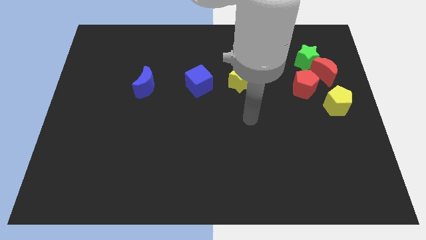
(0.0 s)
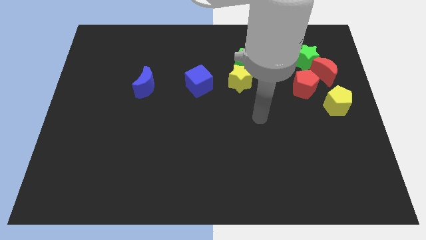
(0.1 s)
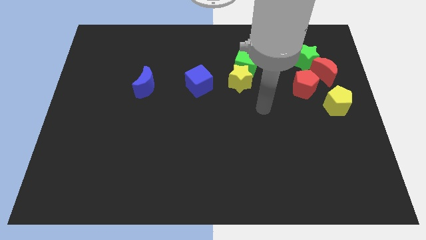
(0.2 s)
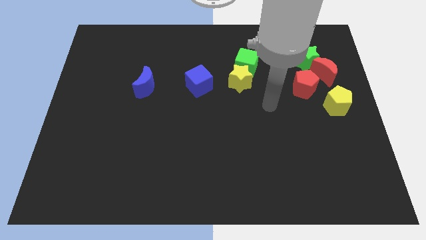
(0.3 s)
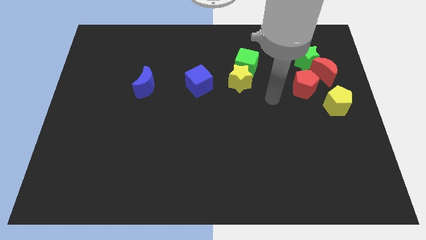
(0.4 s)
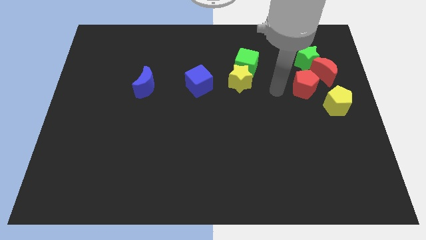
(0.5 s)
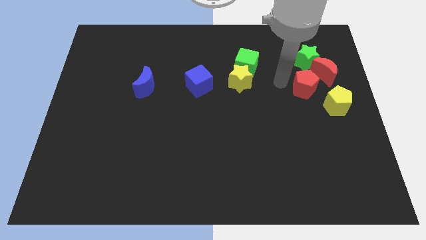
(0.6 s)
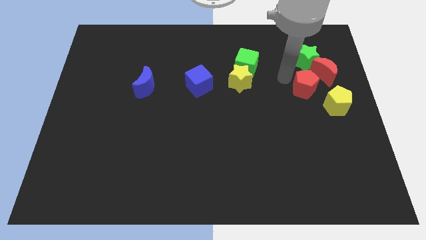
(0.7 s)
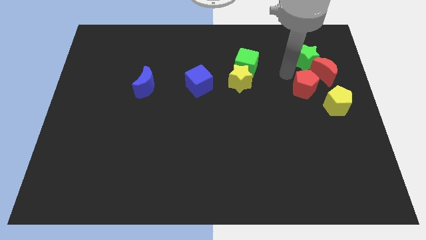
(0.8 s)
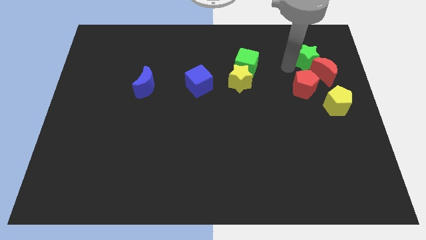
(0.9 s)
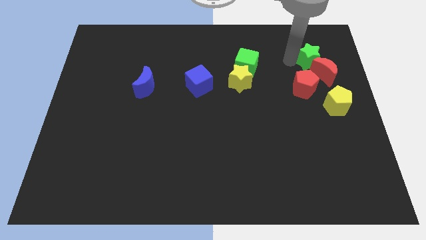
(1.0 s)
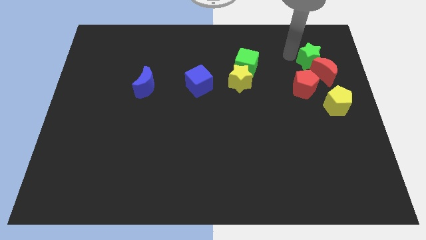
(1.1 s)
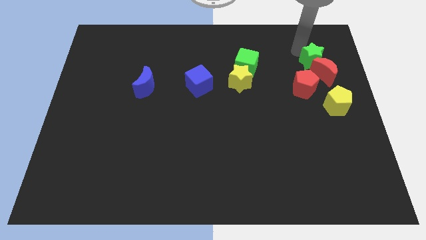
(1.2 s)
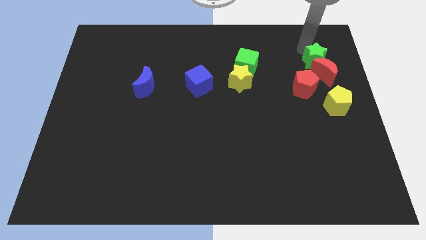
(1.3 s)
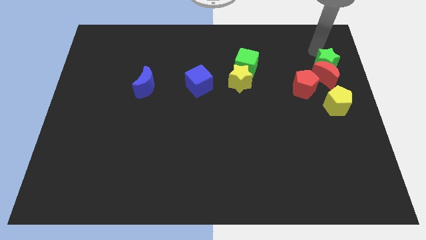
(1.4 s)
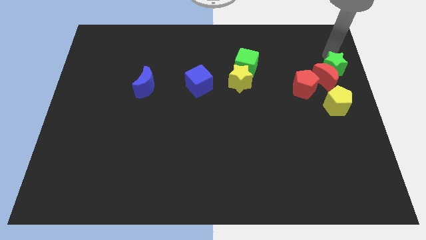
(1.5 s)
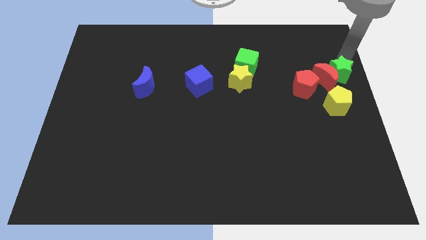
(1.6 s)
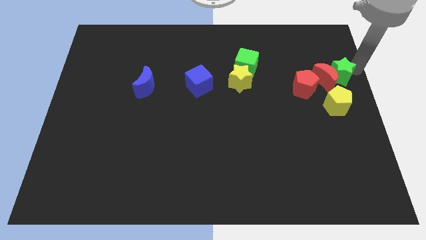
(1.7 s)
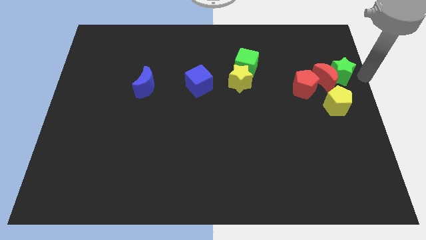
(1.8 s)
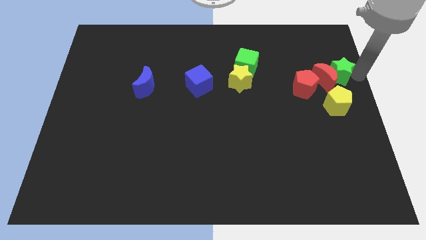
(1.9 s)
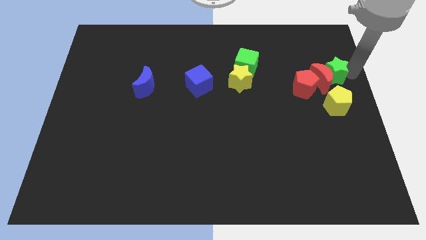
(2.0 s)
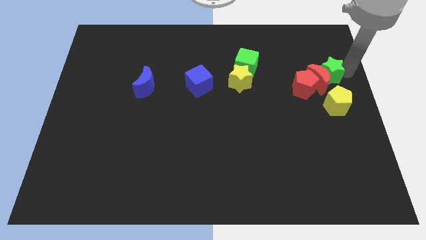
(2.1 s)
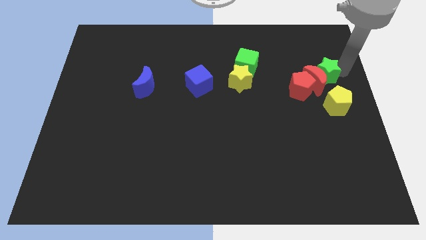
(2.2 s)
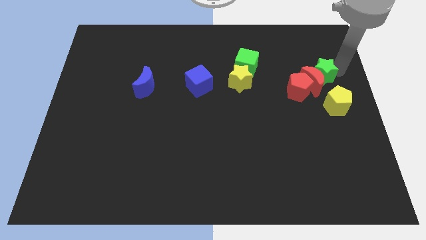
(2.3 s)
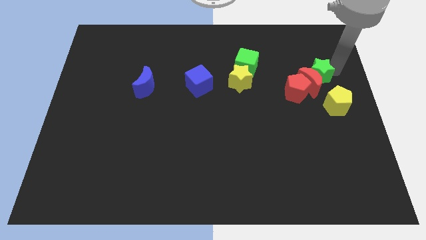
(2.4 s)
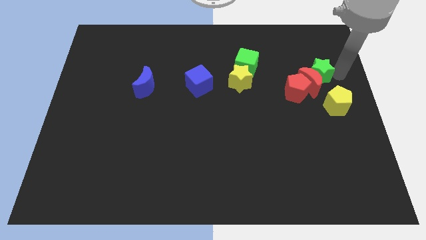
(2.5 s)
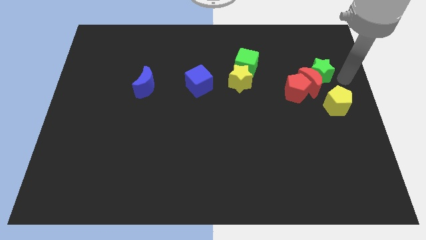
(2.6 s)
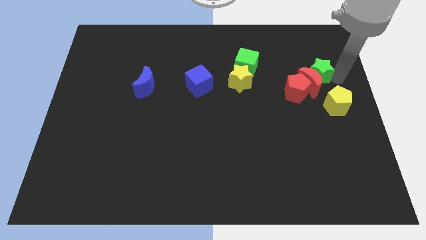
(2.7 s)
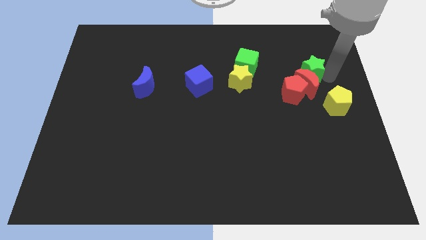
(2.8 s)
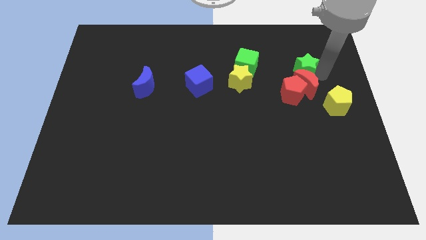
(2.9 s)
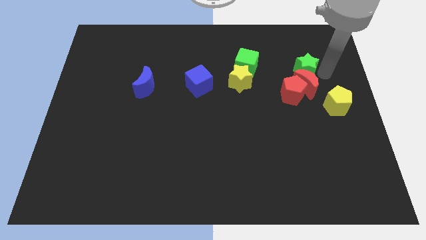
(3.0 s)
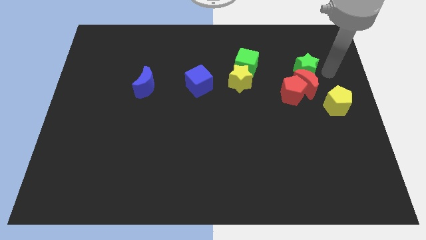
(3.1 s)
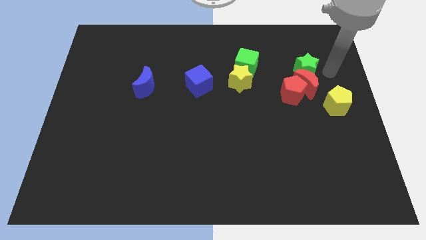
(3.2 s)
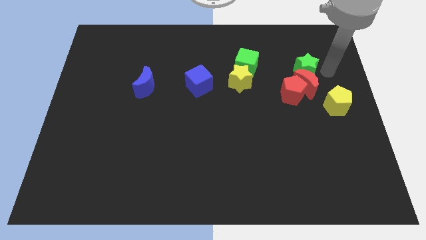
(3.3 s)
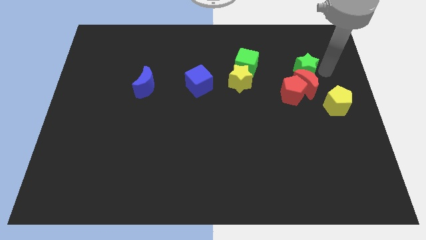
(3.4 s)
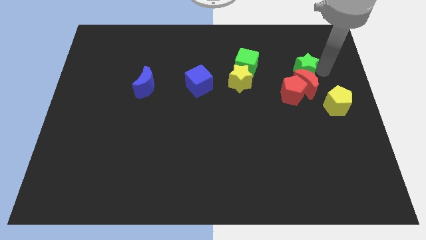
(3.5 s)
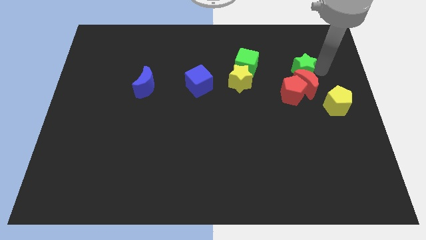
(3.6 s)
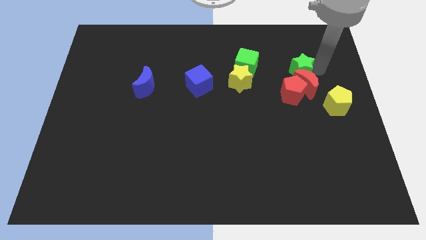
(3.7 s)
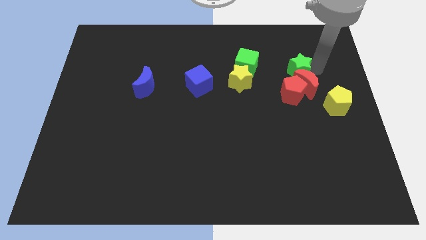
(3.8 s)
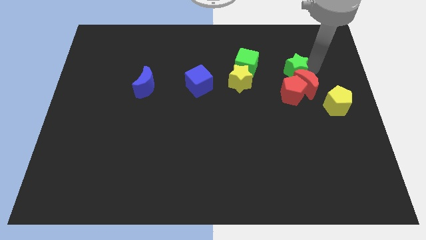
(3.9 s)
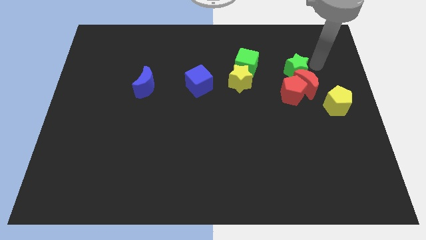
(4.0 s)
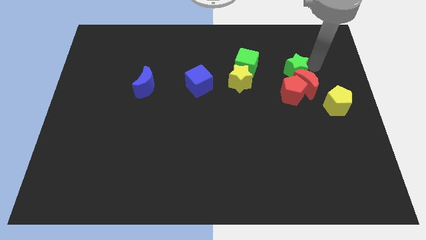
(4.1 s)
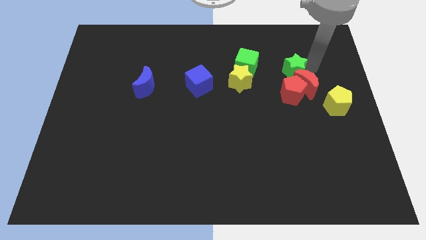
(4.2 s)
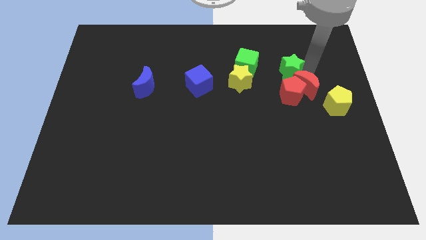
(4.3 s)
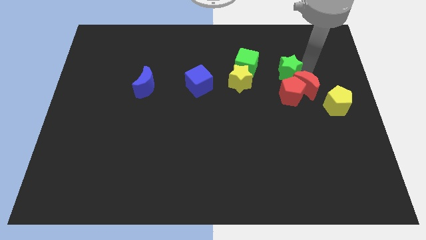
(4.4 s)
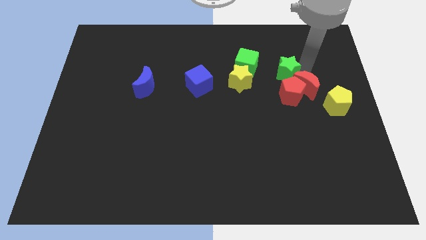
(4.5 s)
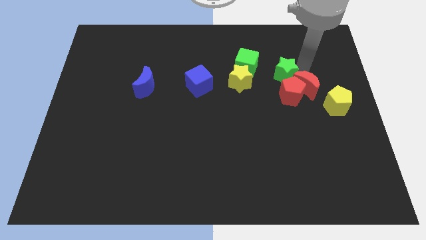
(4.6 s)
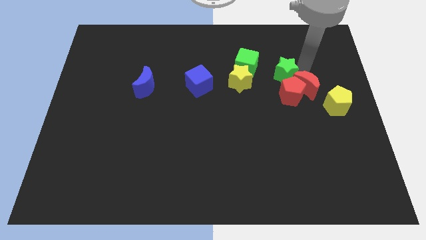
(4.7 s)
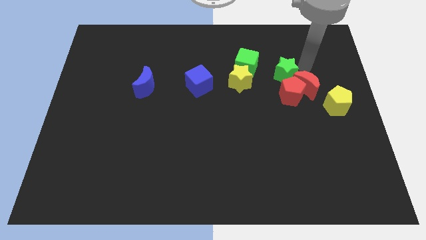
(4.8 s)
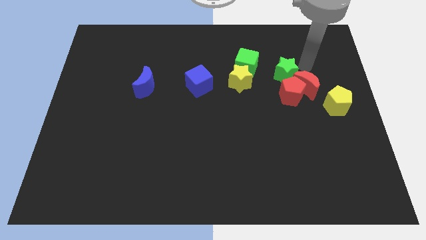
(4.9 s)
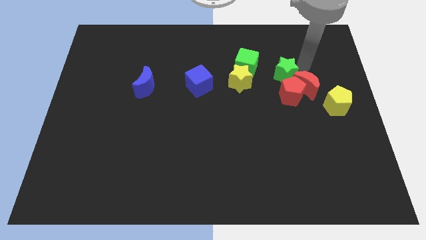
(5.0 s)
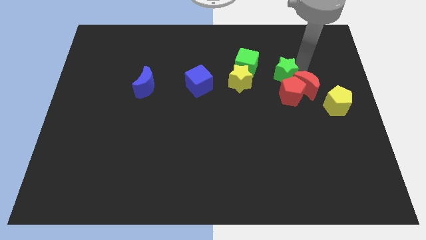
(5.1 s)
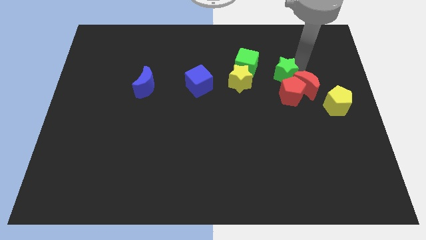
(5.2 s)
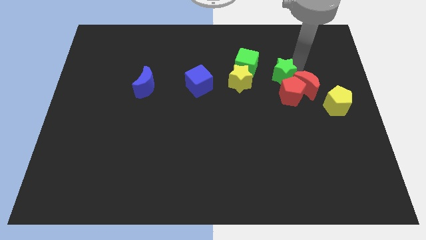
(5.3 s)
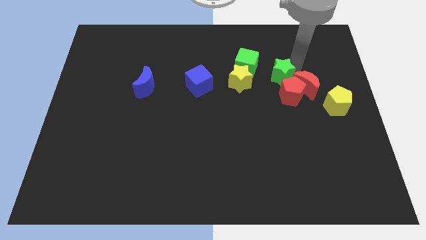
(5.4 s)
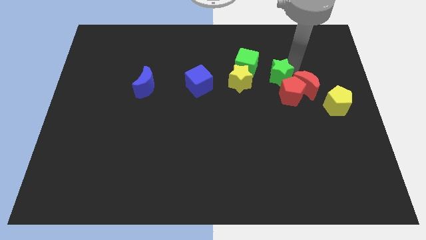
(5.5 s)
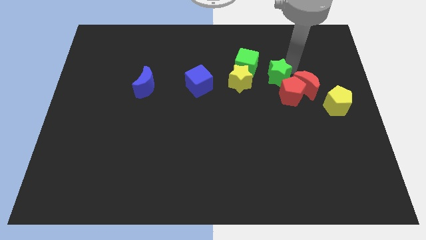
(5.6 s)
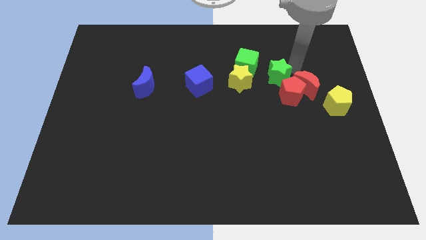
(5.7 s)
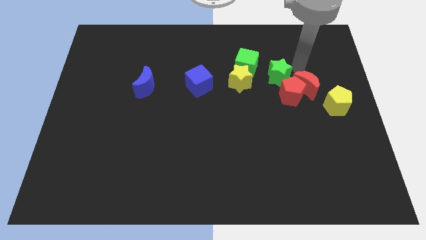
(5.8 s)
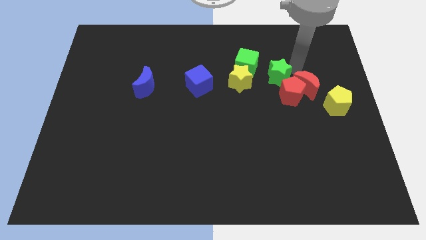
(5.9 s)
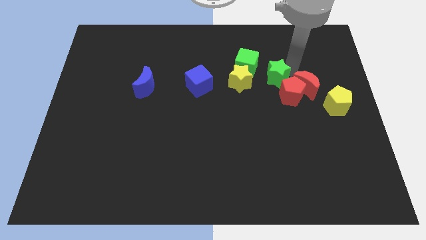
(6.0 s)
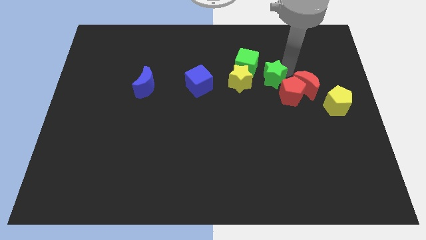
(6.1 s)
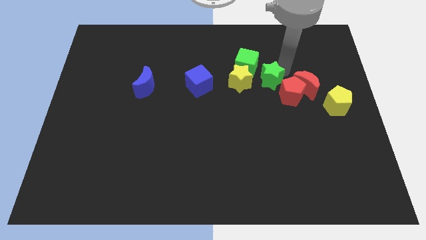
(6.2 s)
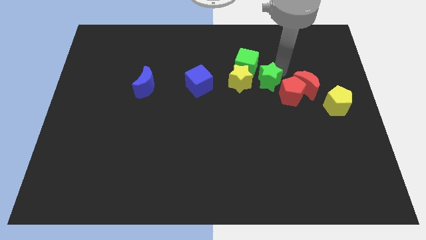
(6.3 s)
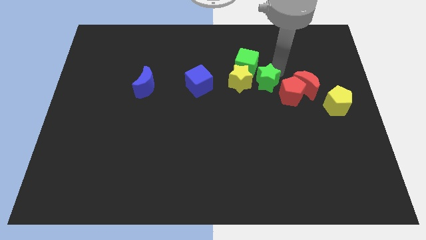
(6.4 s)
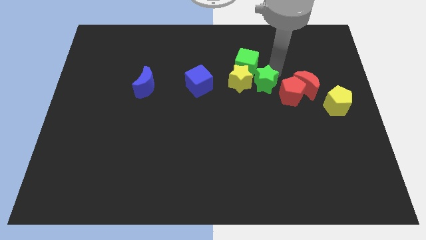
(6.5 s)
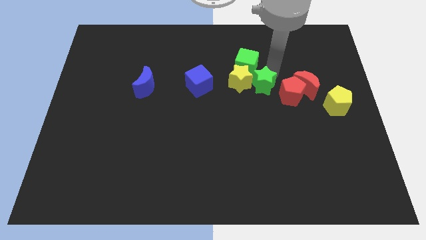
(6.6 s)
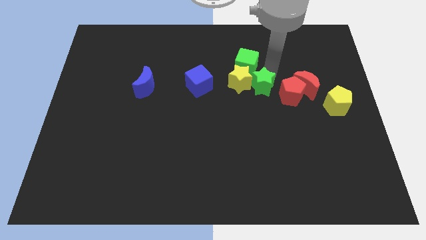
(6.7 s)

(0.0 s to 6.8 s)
move the green star to the center of the board

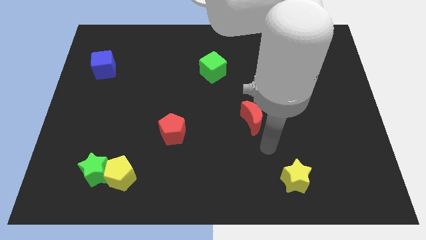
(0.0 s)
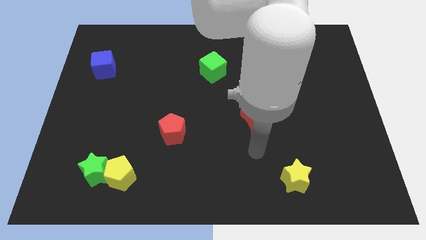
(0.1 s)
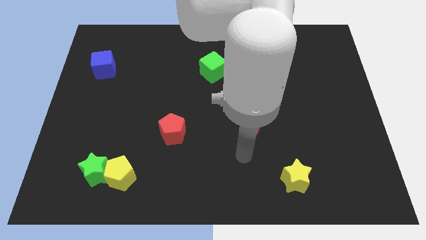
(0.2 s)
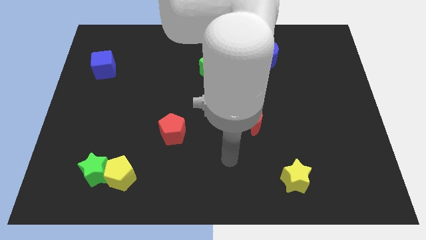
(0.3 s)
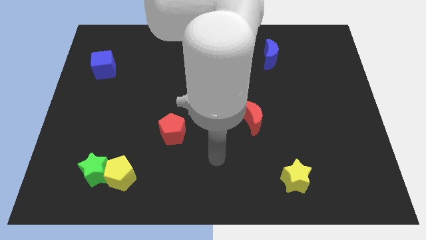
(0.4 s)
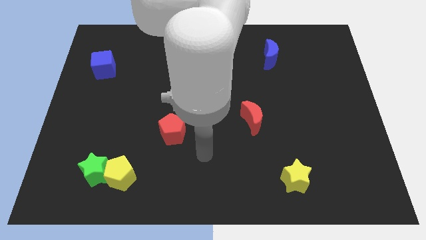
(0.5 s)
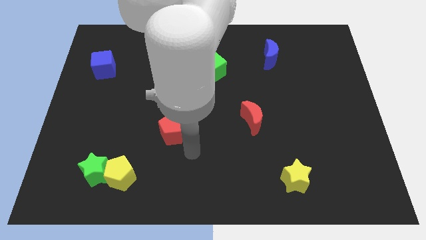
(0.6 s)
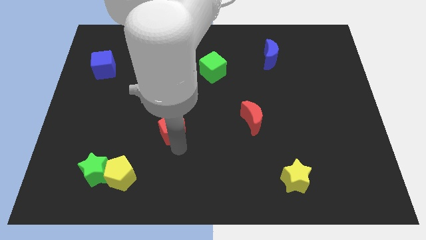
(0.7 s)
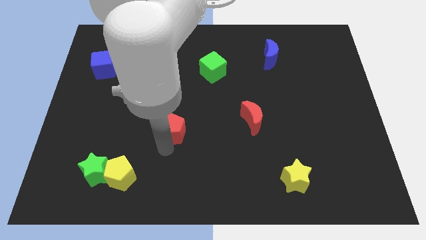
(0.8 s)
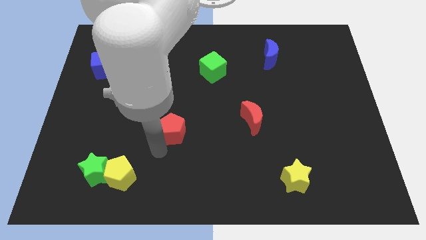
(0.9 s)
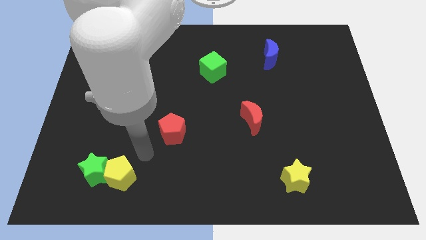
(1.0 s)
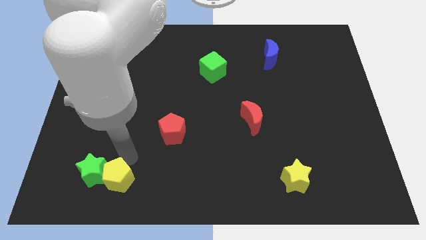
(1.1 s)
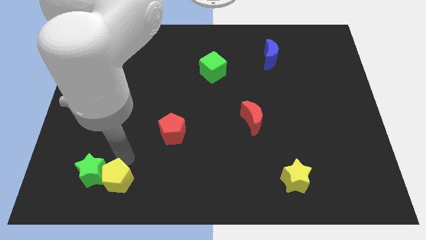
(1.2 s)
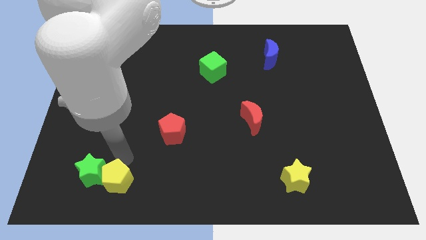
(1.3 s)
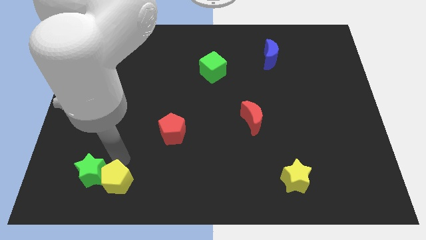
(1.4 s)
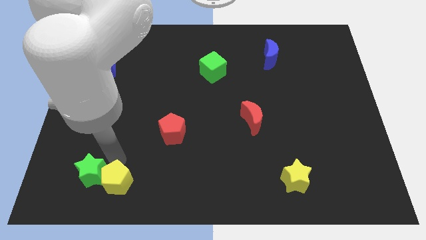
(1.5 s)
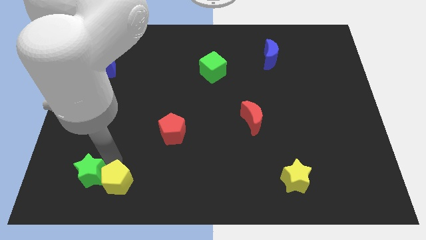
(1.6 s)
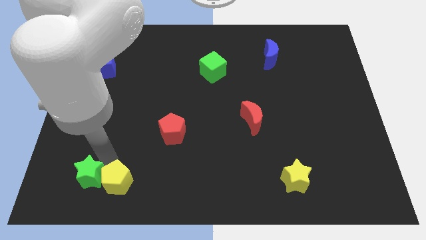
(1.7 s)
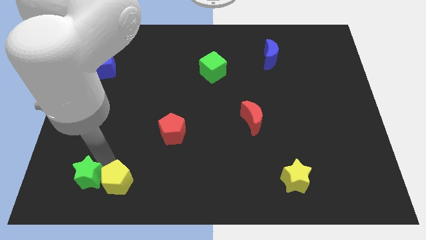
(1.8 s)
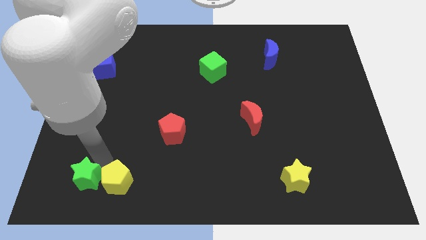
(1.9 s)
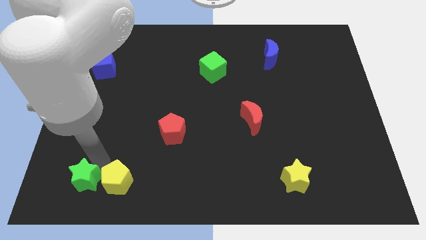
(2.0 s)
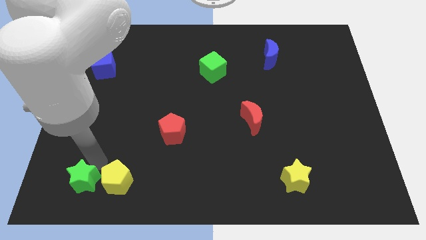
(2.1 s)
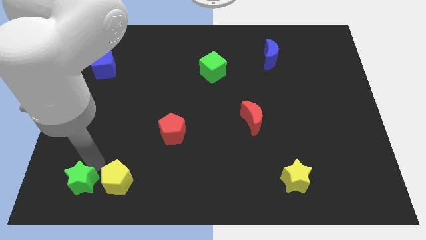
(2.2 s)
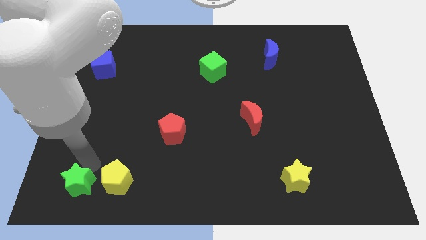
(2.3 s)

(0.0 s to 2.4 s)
push the green star to the bottom left of the board
